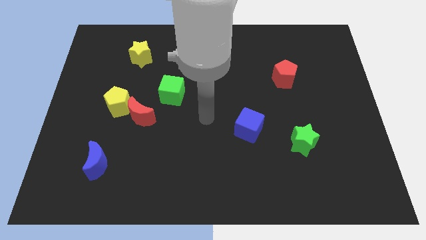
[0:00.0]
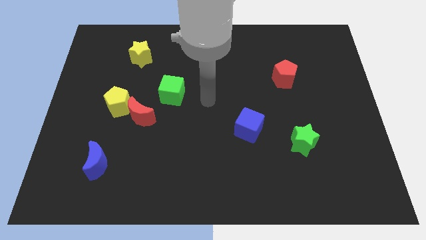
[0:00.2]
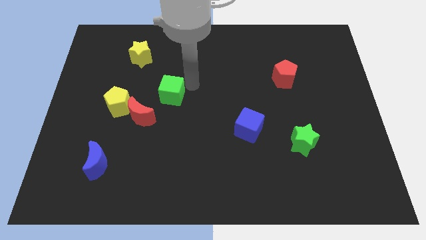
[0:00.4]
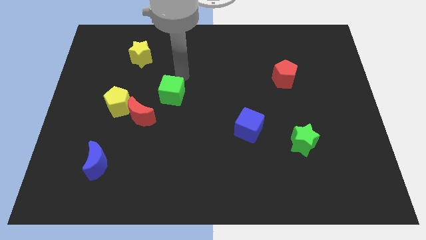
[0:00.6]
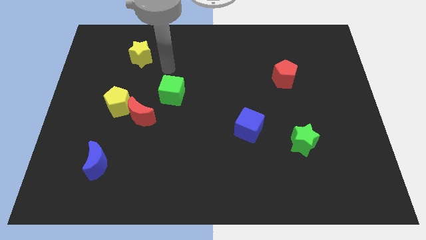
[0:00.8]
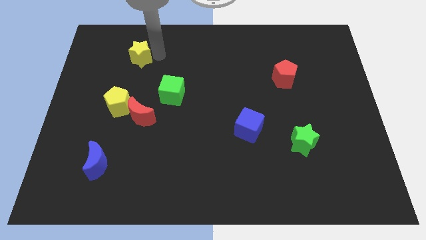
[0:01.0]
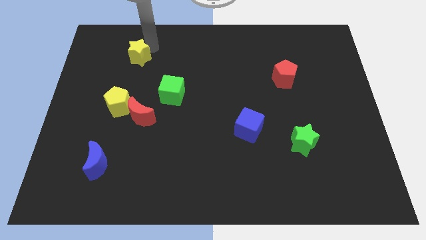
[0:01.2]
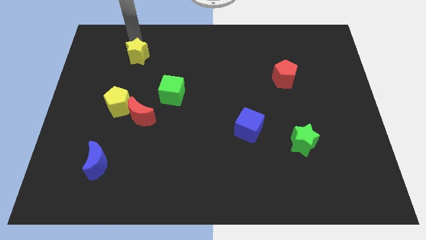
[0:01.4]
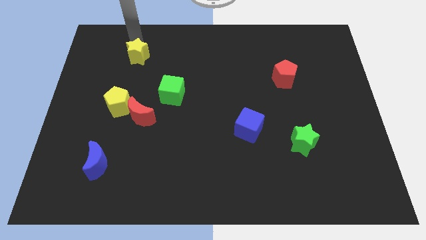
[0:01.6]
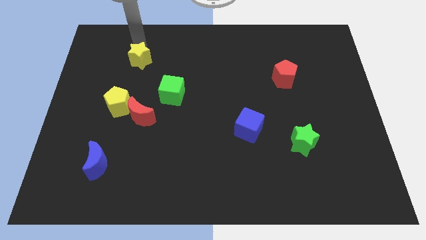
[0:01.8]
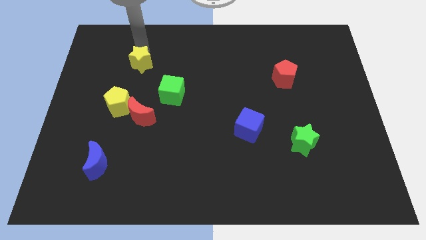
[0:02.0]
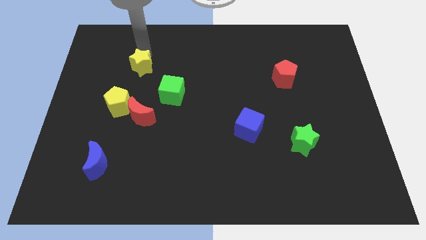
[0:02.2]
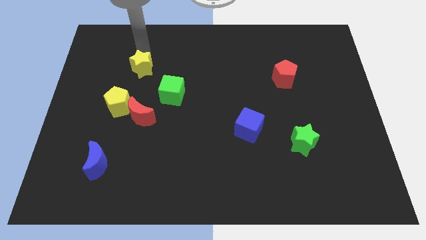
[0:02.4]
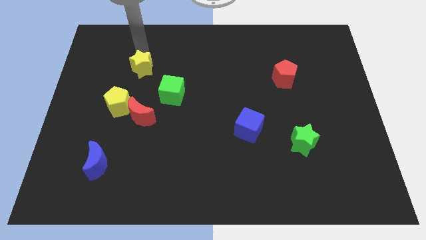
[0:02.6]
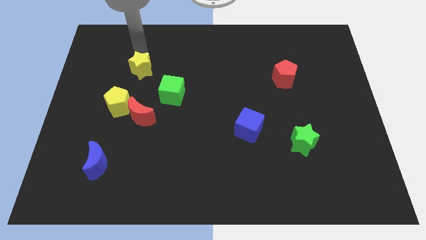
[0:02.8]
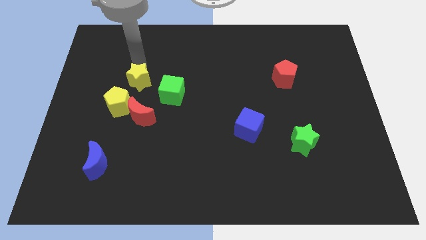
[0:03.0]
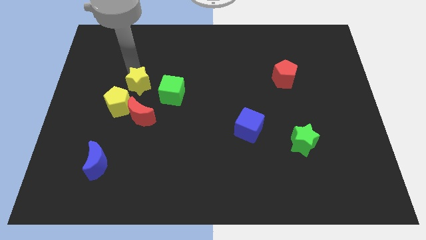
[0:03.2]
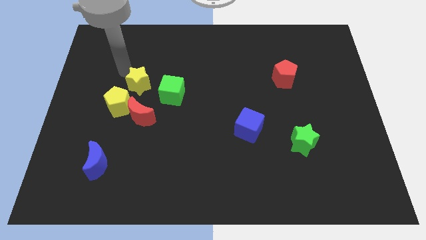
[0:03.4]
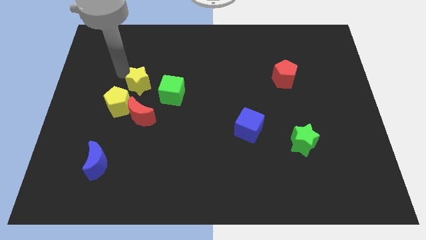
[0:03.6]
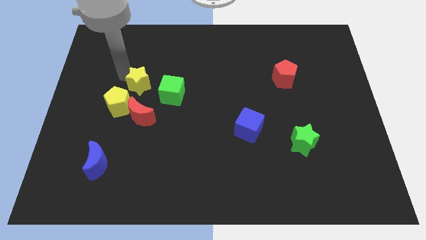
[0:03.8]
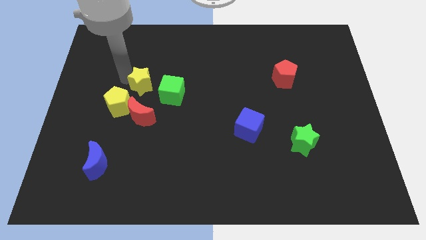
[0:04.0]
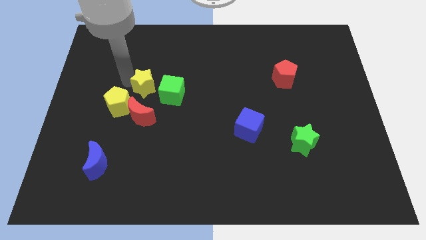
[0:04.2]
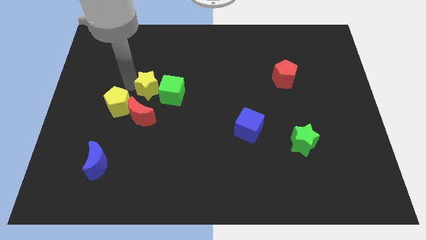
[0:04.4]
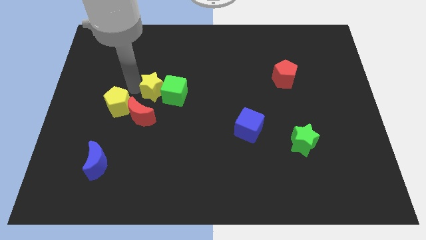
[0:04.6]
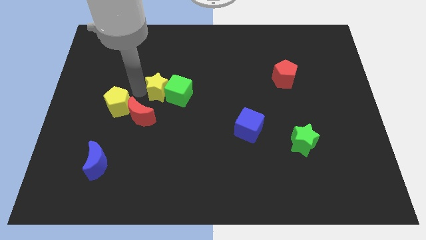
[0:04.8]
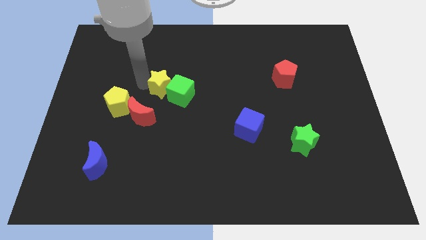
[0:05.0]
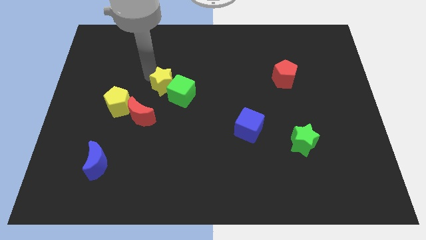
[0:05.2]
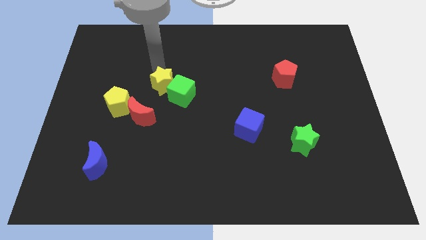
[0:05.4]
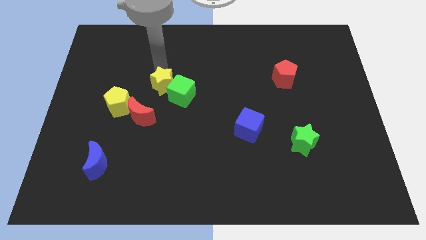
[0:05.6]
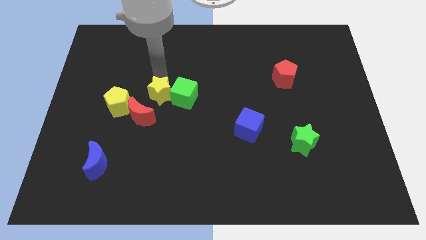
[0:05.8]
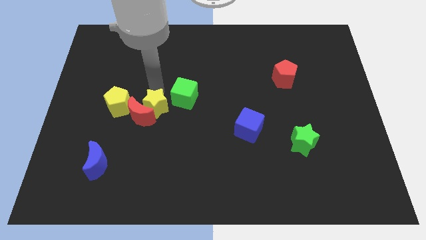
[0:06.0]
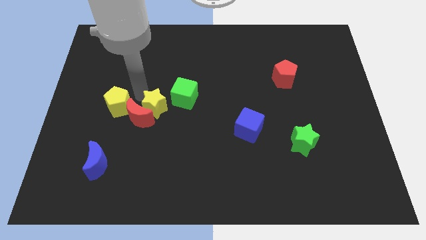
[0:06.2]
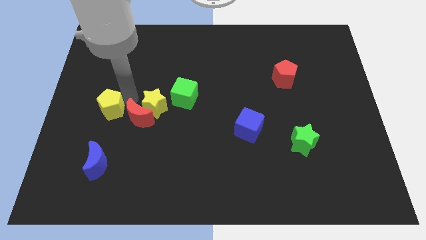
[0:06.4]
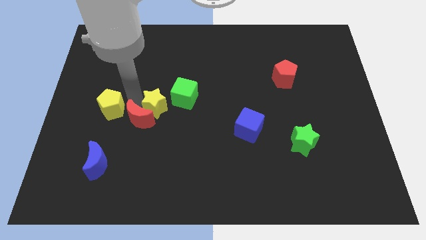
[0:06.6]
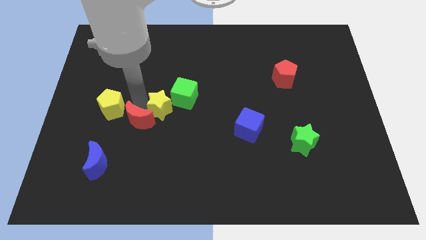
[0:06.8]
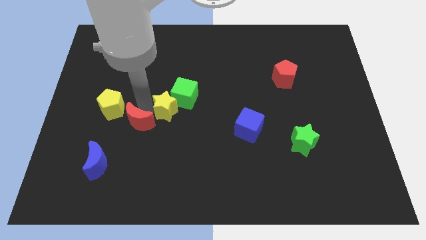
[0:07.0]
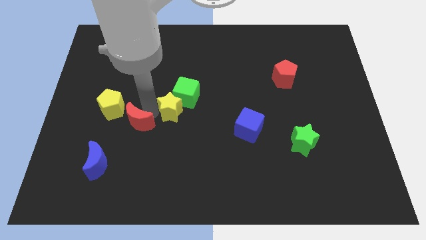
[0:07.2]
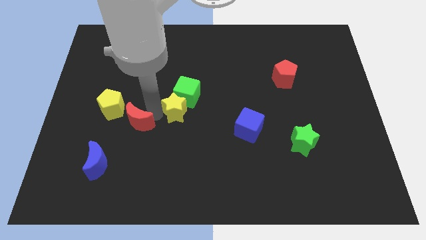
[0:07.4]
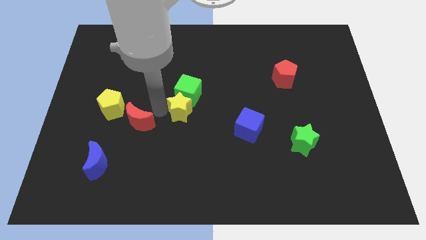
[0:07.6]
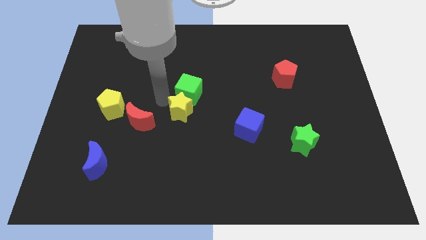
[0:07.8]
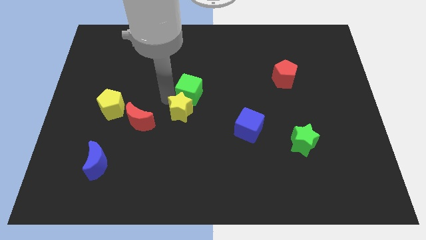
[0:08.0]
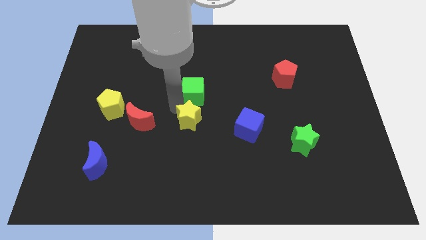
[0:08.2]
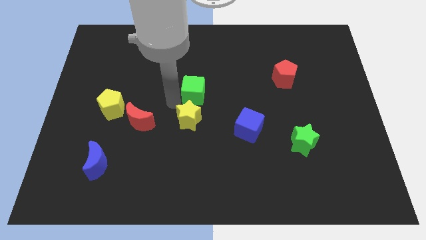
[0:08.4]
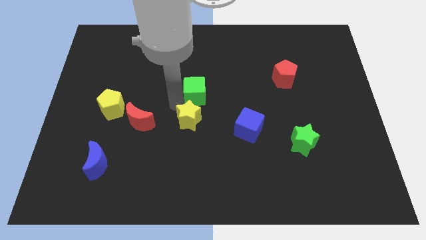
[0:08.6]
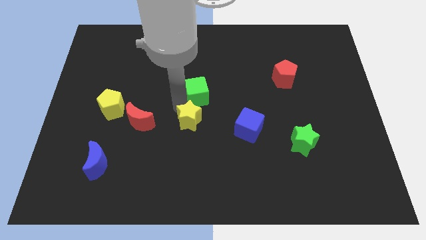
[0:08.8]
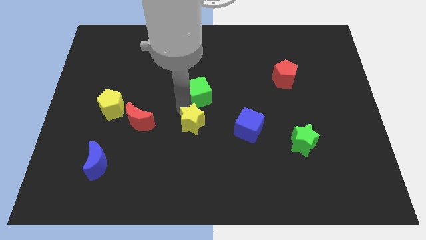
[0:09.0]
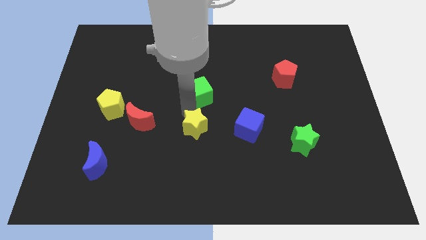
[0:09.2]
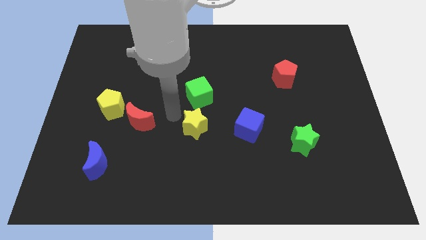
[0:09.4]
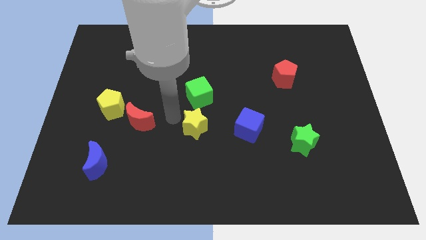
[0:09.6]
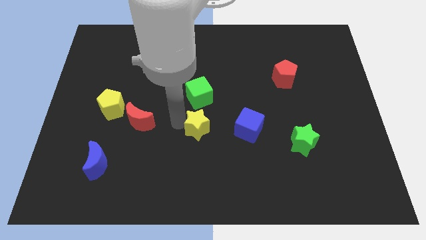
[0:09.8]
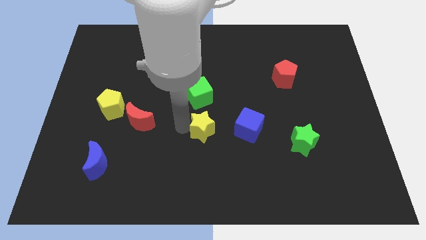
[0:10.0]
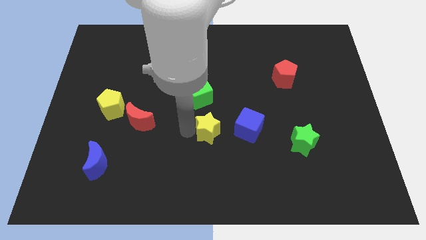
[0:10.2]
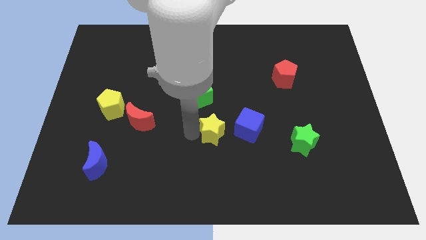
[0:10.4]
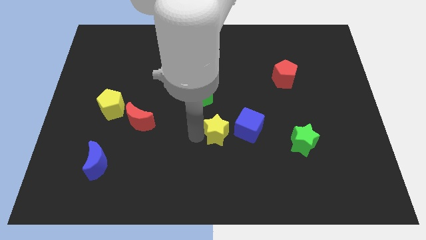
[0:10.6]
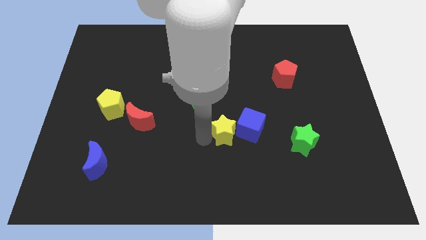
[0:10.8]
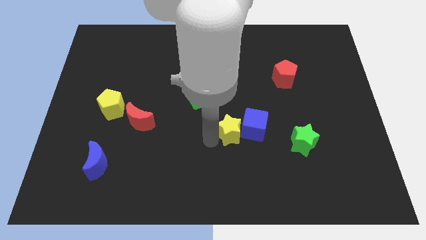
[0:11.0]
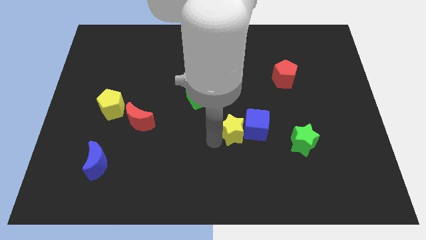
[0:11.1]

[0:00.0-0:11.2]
push the yellow star to the left side of the green star

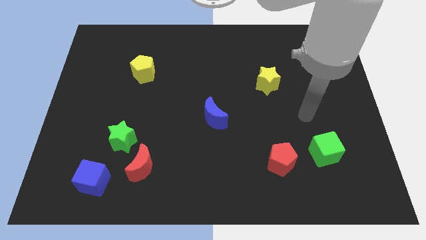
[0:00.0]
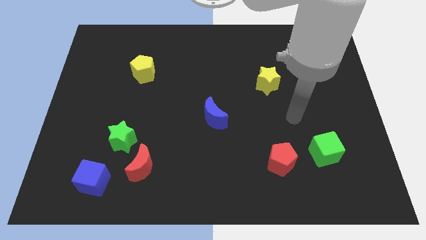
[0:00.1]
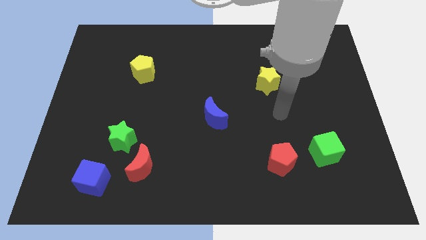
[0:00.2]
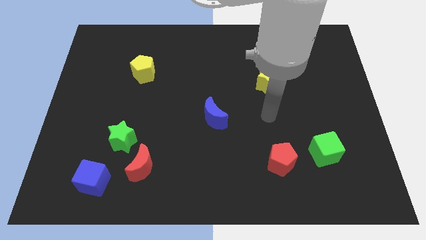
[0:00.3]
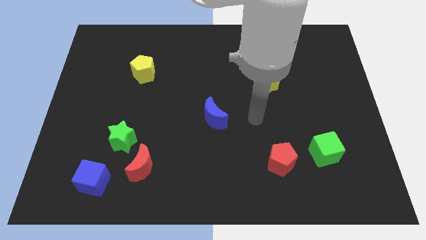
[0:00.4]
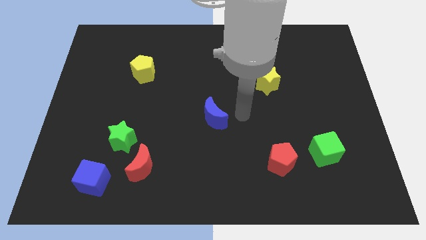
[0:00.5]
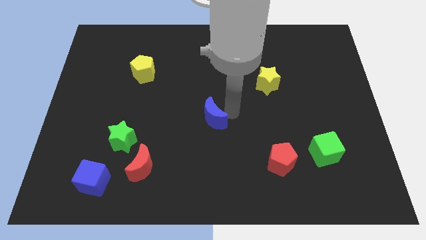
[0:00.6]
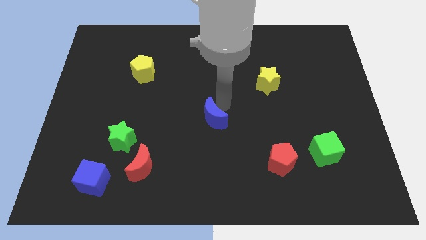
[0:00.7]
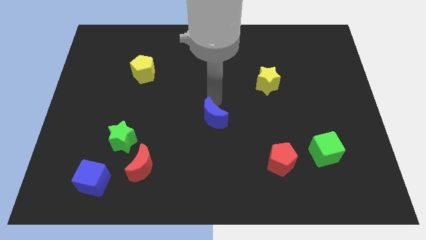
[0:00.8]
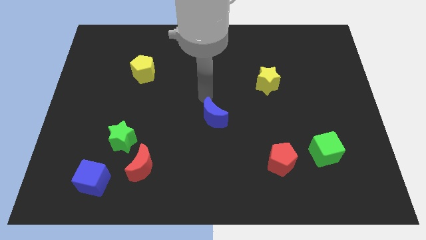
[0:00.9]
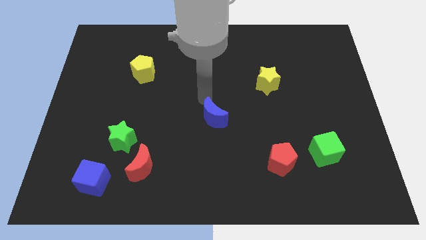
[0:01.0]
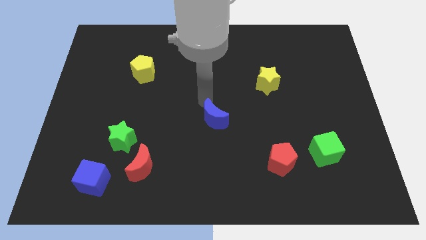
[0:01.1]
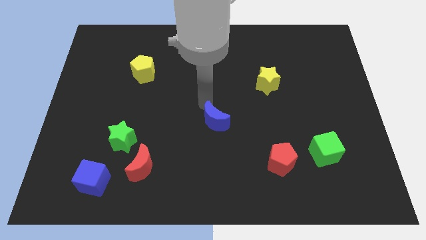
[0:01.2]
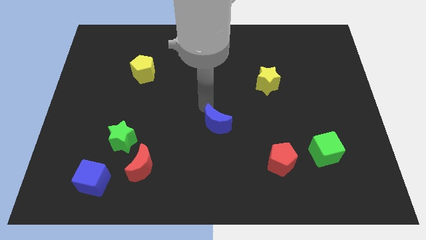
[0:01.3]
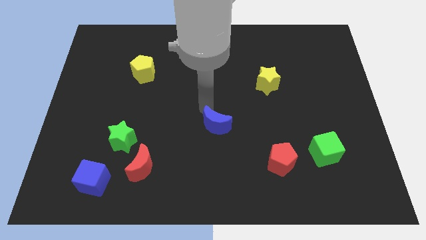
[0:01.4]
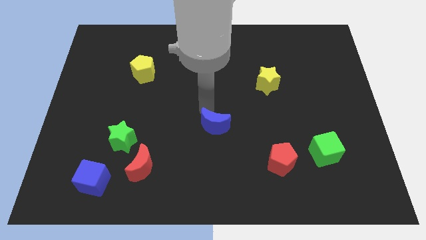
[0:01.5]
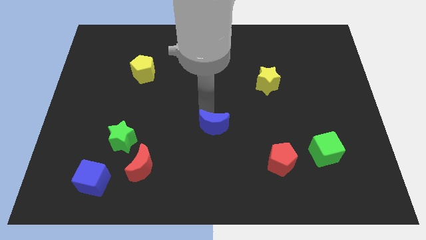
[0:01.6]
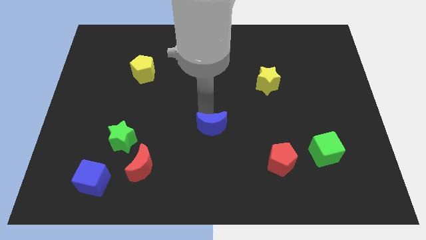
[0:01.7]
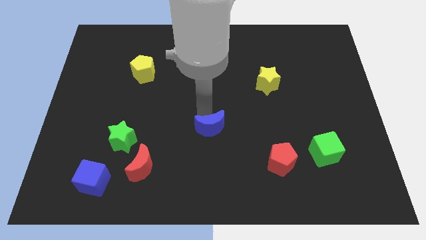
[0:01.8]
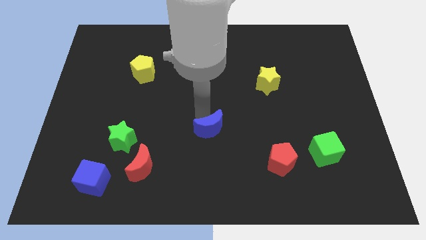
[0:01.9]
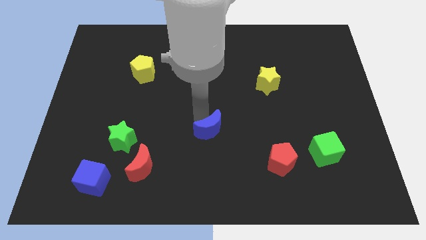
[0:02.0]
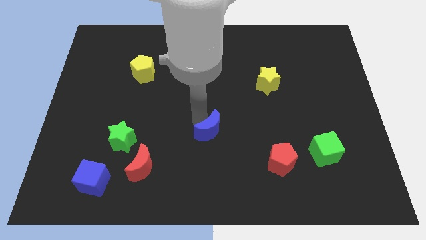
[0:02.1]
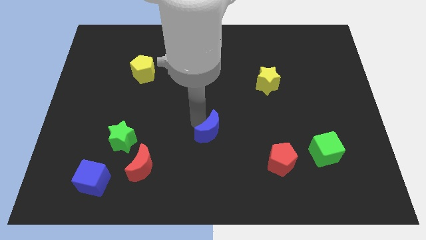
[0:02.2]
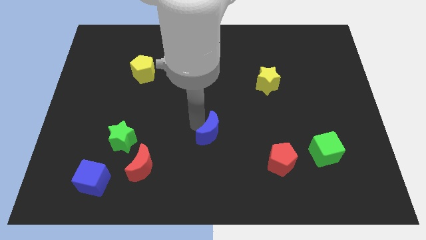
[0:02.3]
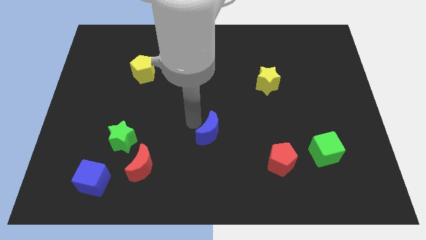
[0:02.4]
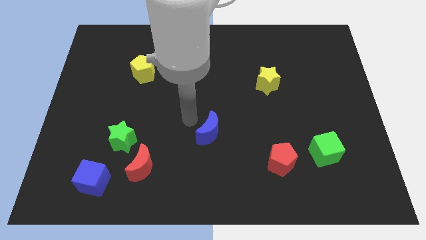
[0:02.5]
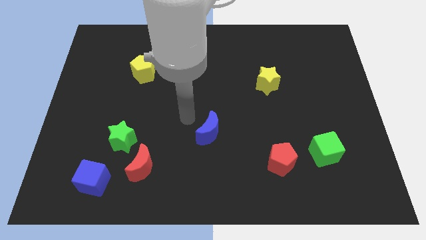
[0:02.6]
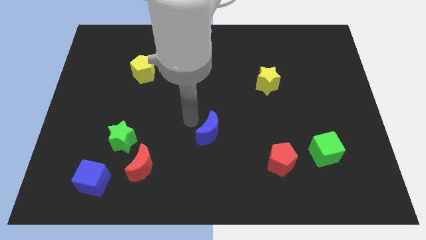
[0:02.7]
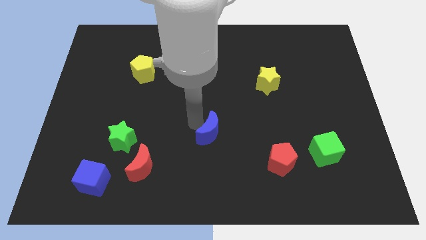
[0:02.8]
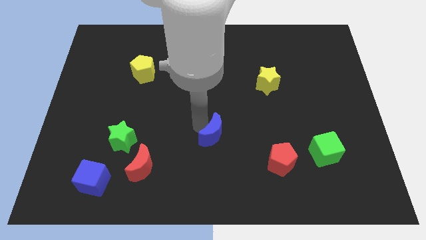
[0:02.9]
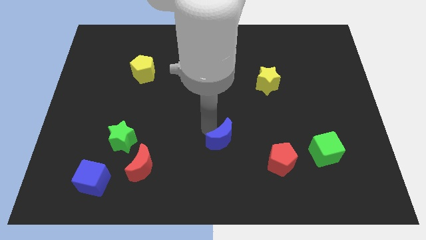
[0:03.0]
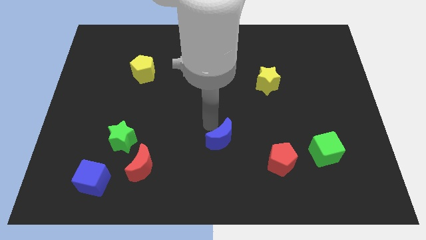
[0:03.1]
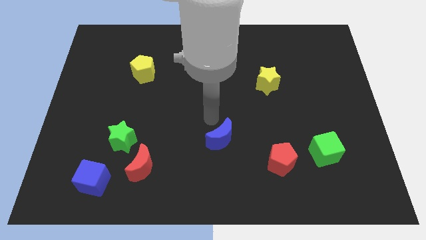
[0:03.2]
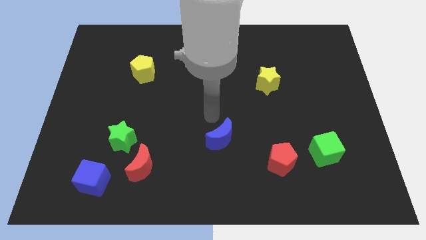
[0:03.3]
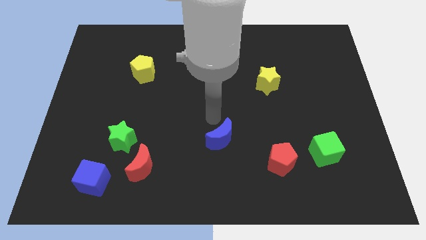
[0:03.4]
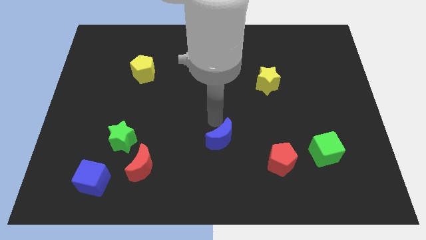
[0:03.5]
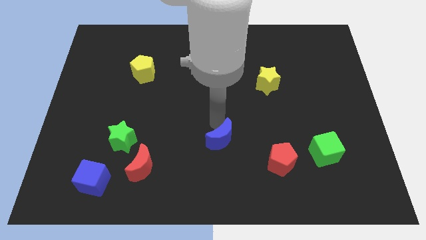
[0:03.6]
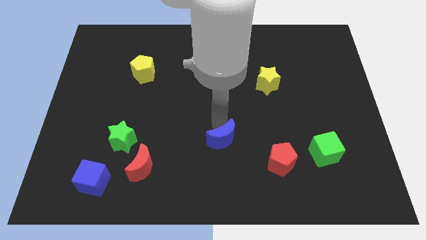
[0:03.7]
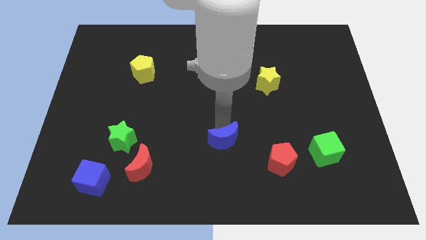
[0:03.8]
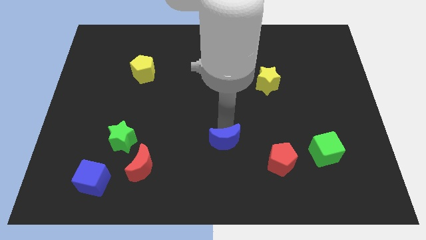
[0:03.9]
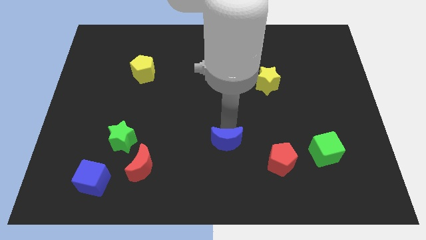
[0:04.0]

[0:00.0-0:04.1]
slide the blue moon to the left side of the red pentagon
